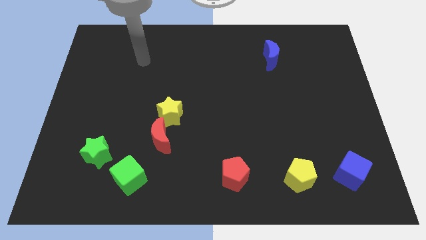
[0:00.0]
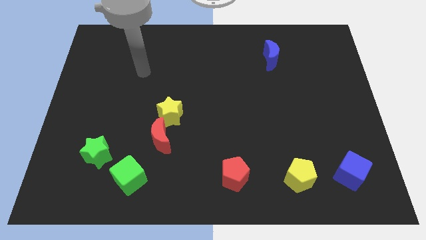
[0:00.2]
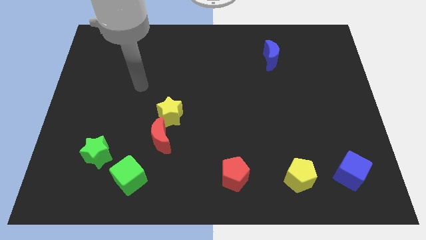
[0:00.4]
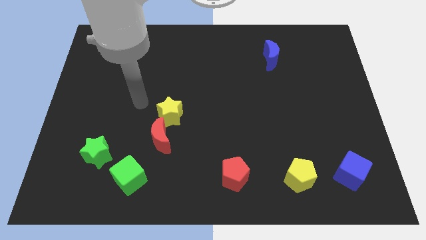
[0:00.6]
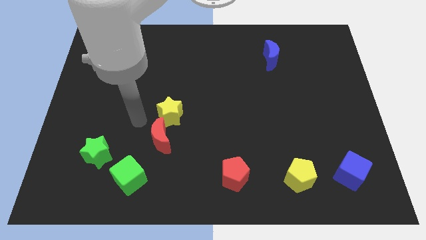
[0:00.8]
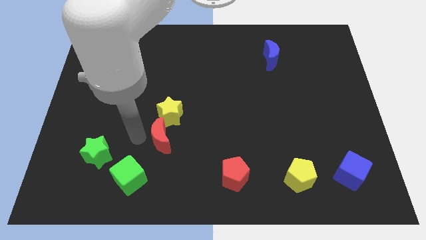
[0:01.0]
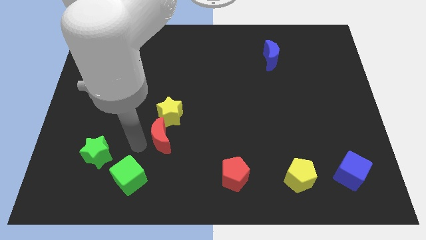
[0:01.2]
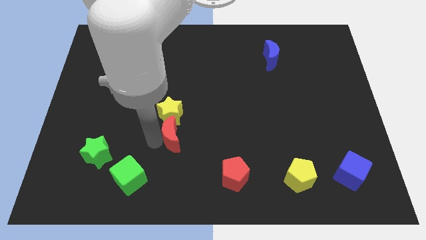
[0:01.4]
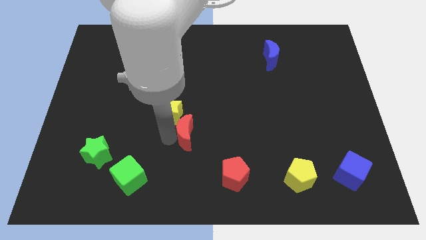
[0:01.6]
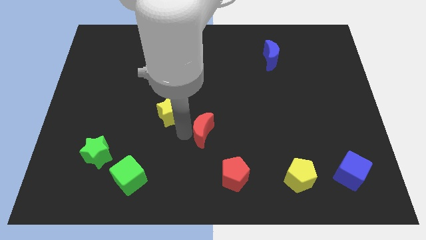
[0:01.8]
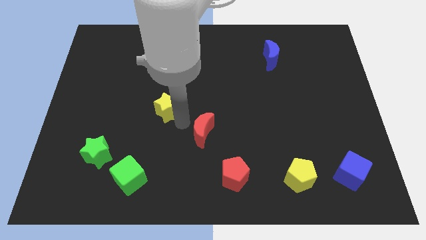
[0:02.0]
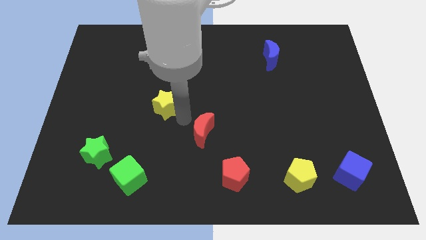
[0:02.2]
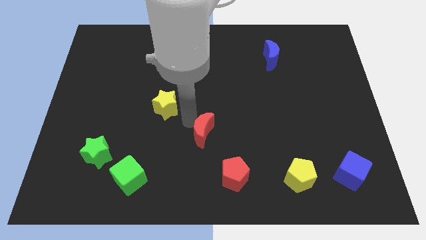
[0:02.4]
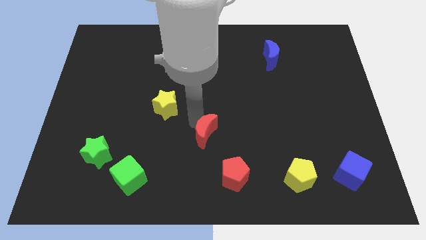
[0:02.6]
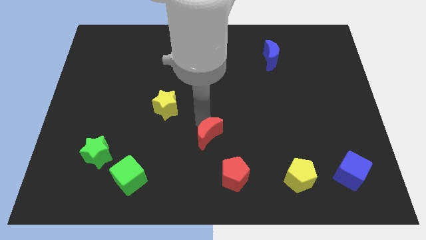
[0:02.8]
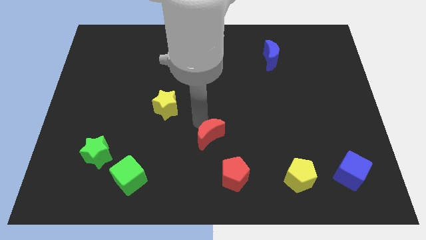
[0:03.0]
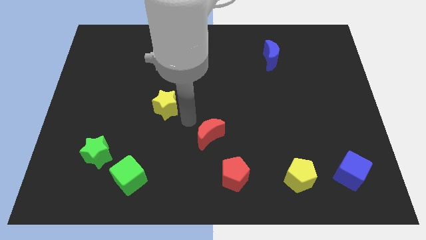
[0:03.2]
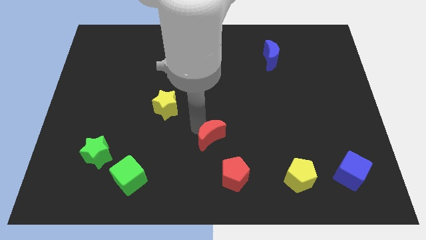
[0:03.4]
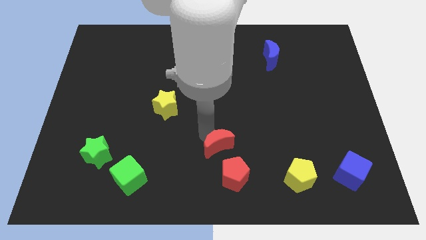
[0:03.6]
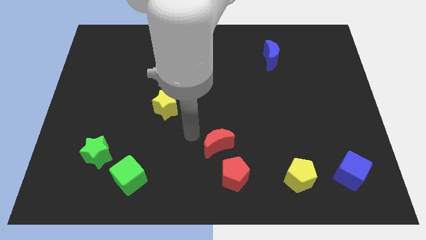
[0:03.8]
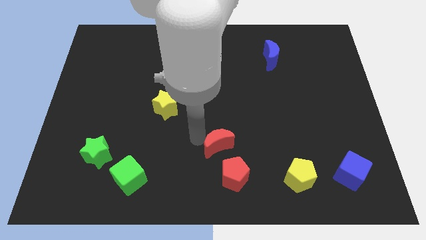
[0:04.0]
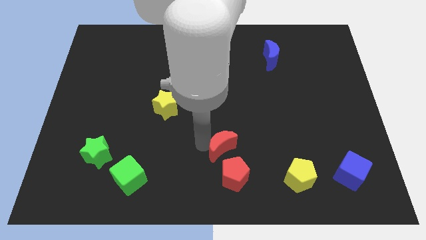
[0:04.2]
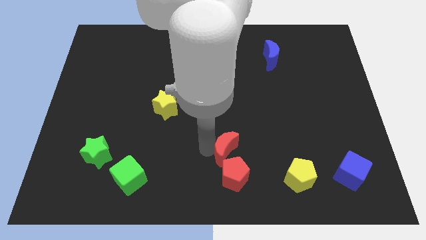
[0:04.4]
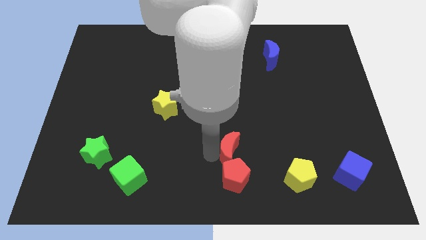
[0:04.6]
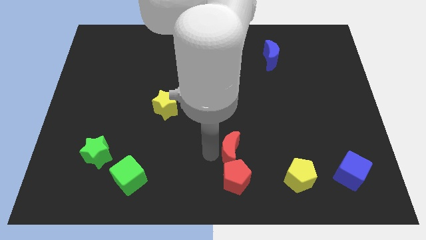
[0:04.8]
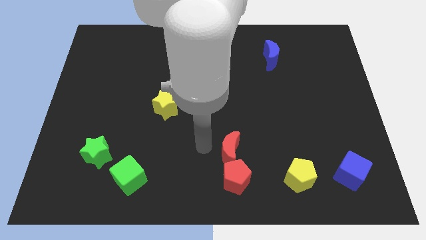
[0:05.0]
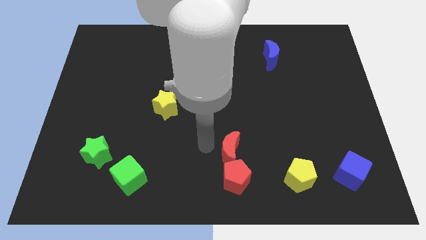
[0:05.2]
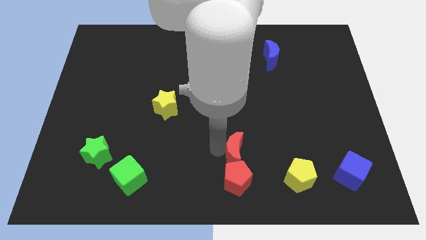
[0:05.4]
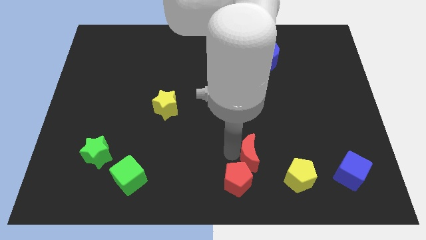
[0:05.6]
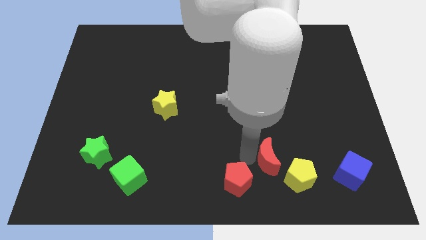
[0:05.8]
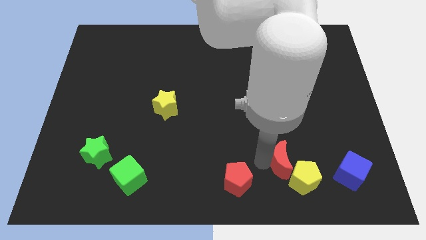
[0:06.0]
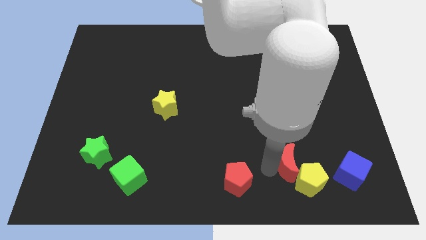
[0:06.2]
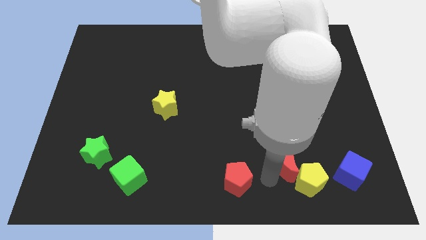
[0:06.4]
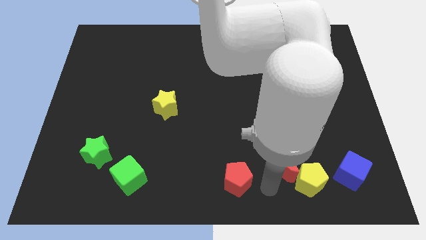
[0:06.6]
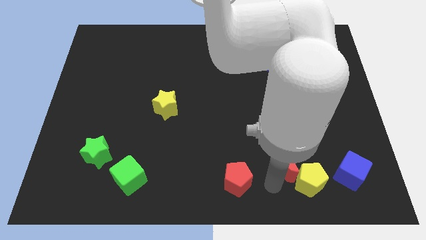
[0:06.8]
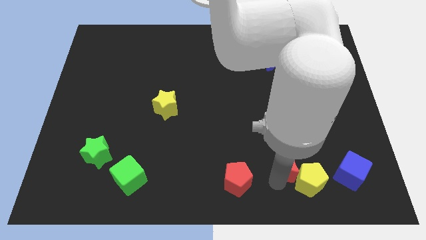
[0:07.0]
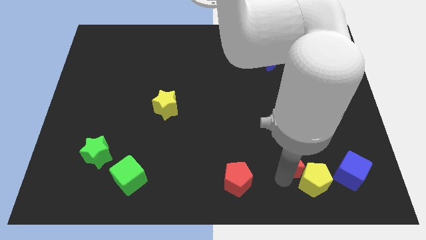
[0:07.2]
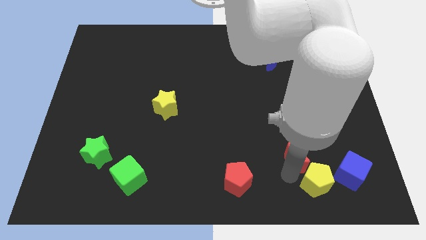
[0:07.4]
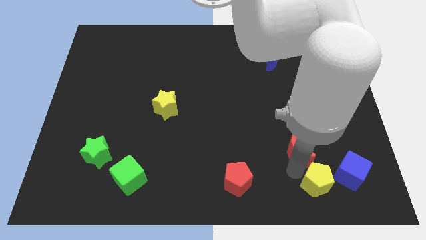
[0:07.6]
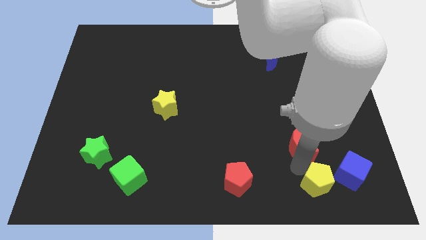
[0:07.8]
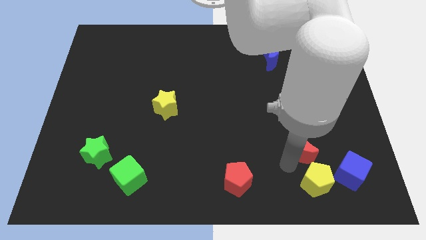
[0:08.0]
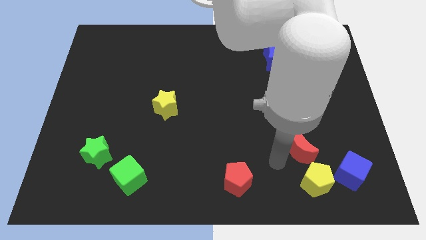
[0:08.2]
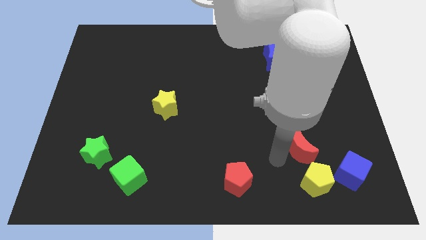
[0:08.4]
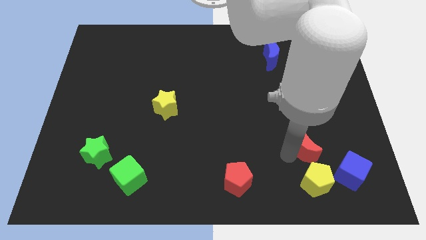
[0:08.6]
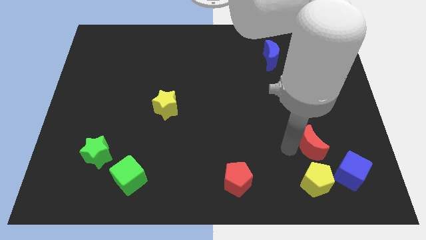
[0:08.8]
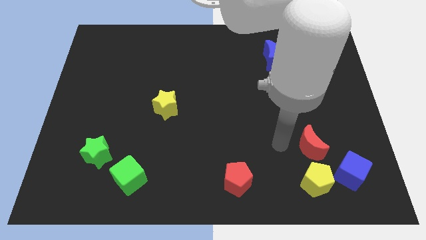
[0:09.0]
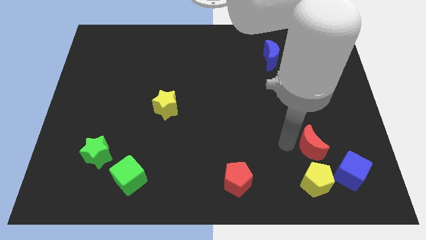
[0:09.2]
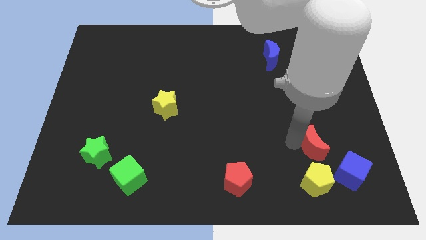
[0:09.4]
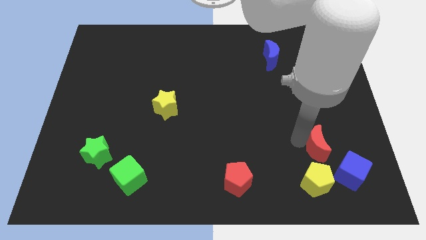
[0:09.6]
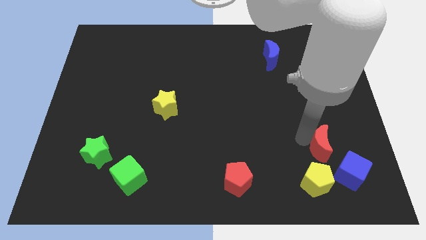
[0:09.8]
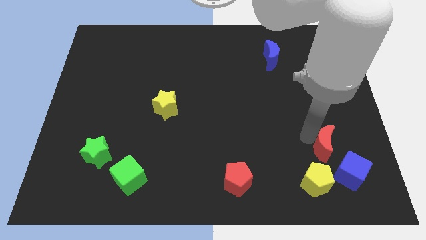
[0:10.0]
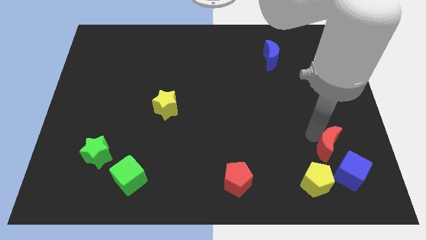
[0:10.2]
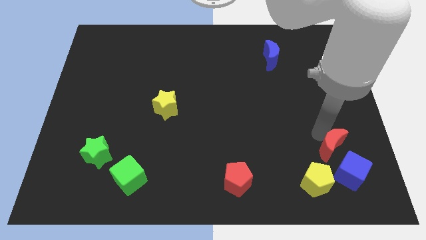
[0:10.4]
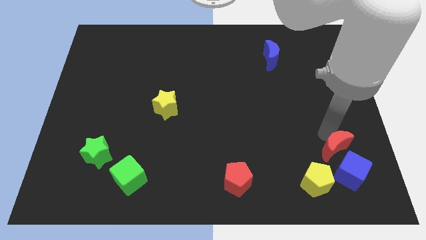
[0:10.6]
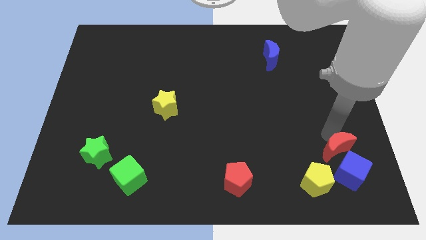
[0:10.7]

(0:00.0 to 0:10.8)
put the red moon close to the blue cube

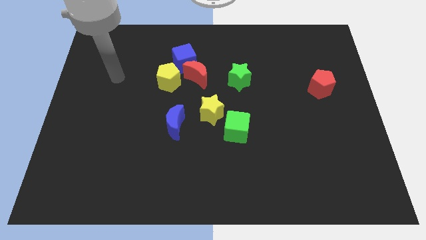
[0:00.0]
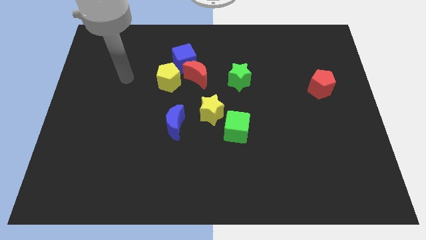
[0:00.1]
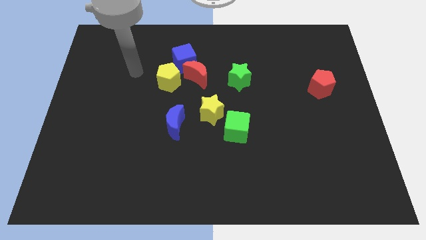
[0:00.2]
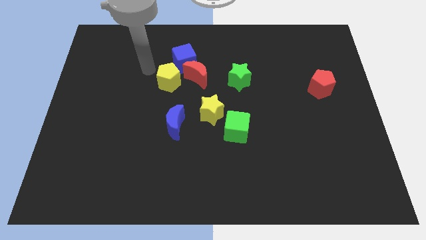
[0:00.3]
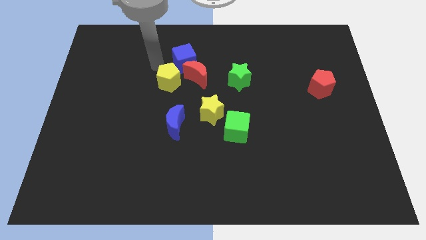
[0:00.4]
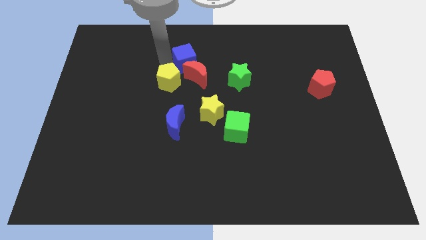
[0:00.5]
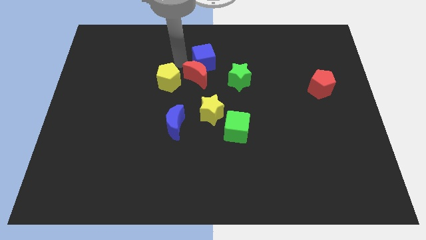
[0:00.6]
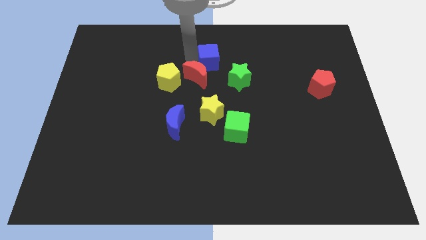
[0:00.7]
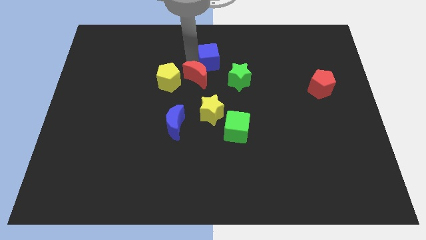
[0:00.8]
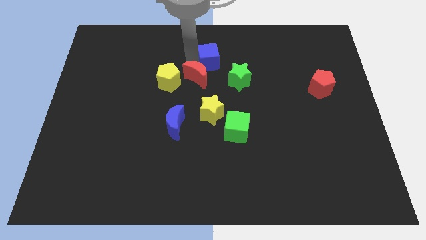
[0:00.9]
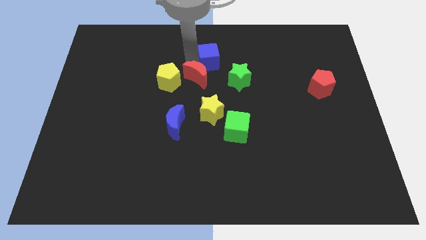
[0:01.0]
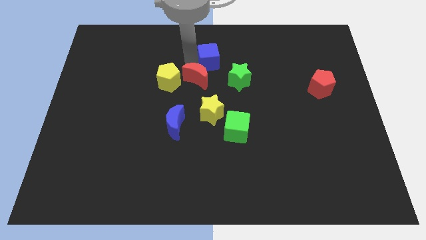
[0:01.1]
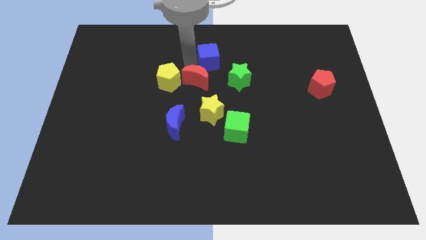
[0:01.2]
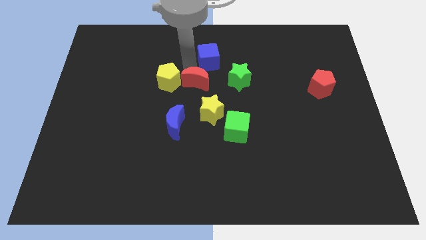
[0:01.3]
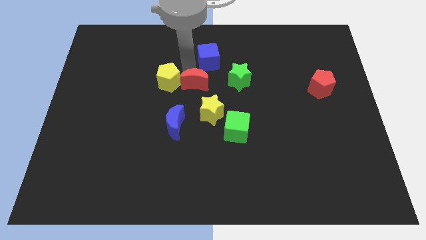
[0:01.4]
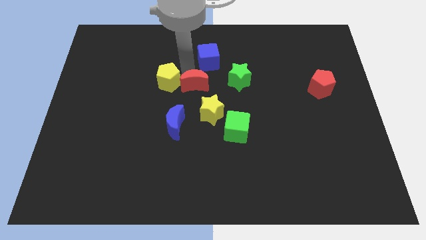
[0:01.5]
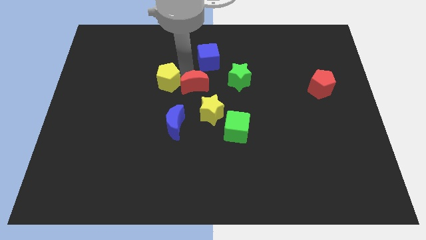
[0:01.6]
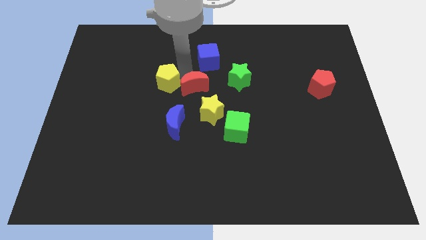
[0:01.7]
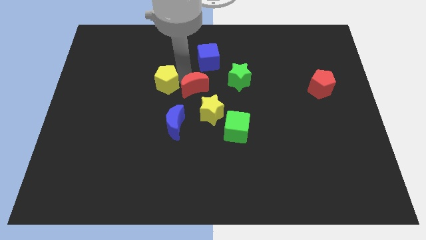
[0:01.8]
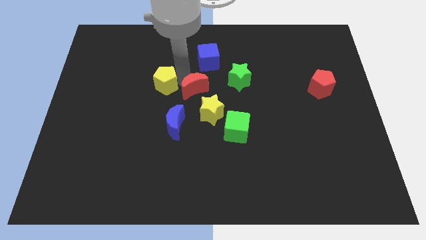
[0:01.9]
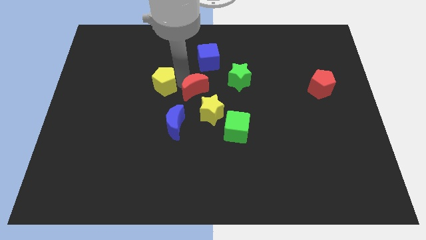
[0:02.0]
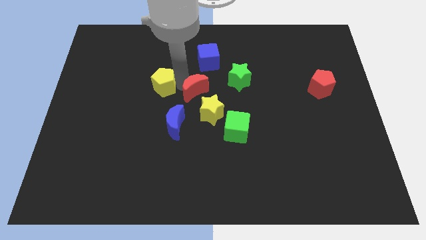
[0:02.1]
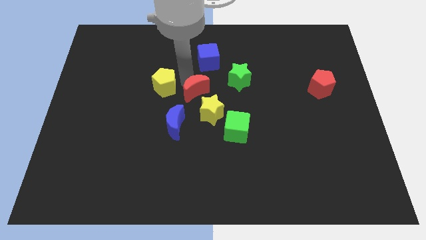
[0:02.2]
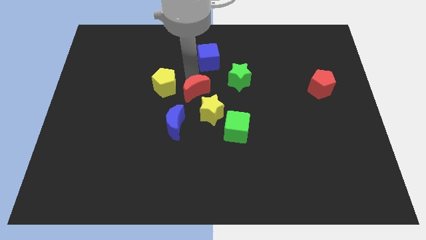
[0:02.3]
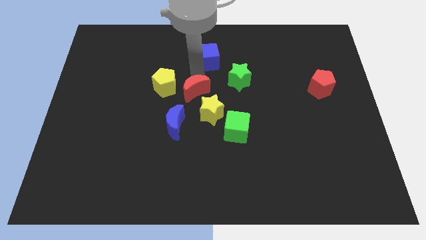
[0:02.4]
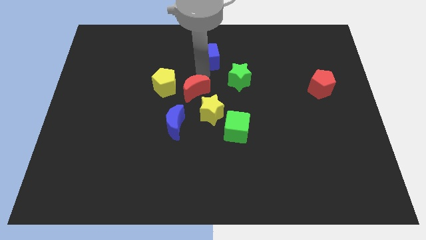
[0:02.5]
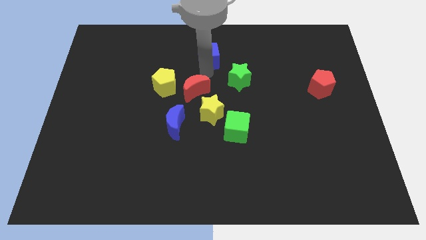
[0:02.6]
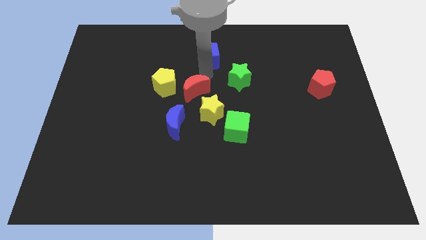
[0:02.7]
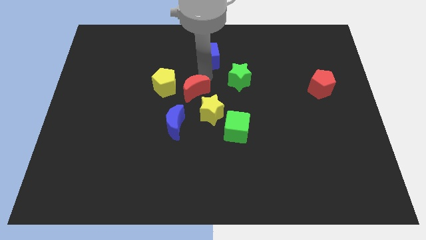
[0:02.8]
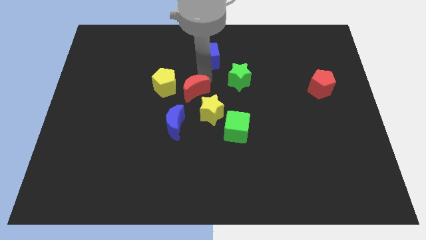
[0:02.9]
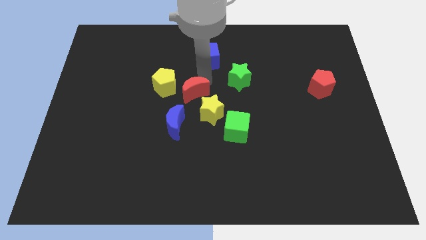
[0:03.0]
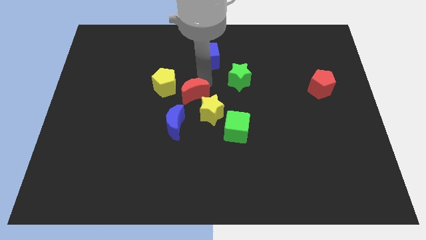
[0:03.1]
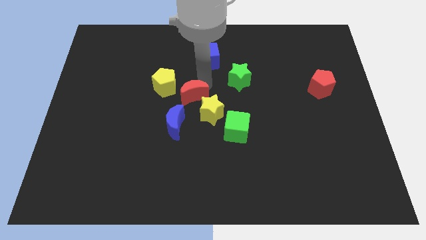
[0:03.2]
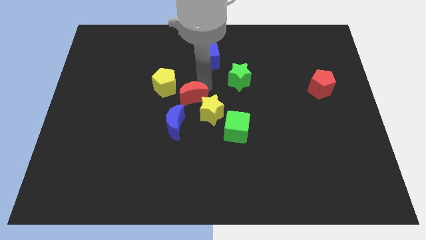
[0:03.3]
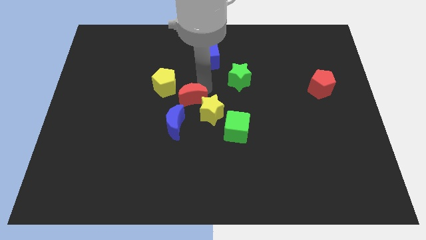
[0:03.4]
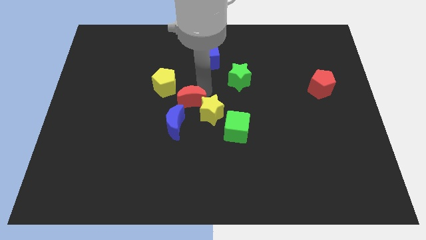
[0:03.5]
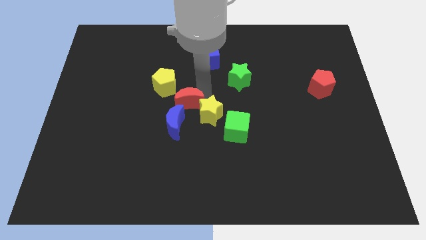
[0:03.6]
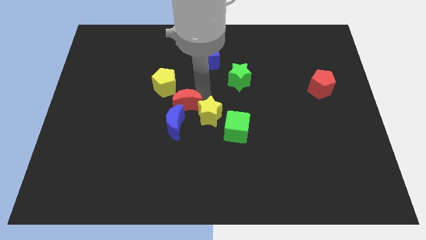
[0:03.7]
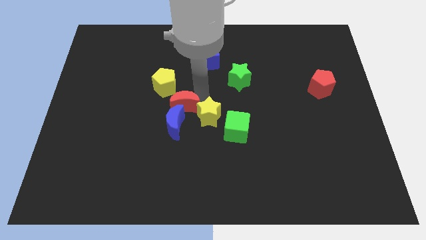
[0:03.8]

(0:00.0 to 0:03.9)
move the red moon towards the blue moon
